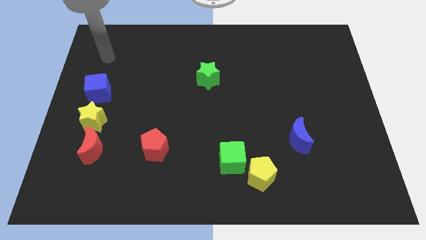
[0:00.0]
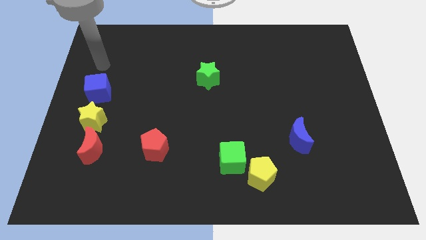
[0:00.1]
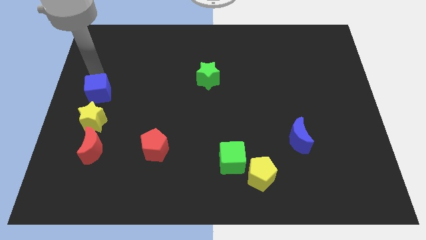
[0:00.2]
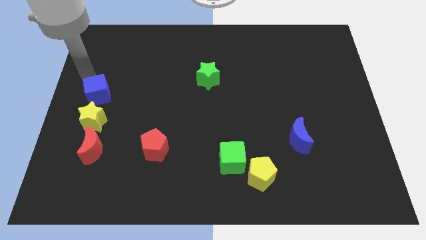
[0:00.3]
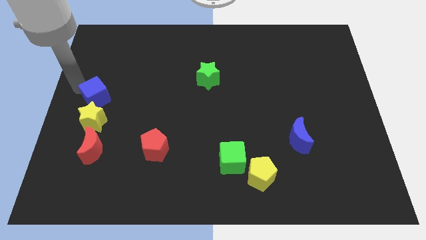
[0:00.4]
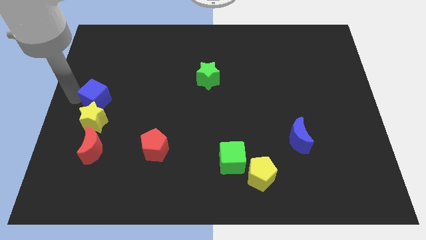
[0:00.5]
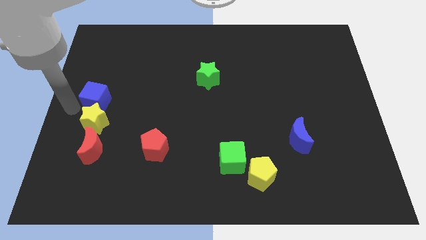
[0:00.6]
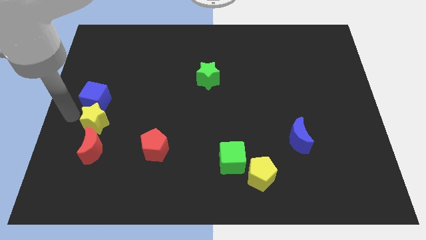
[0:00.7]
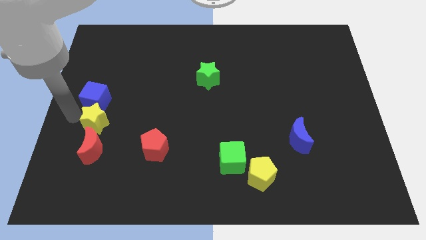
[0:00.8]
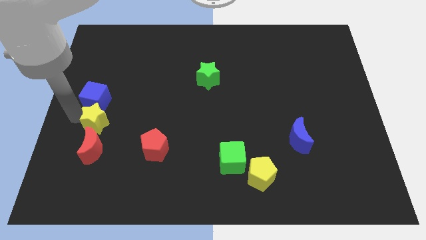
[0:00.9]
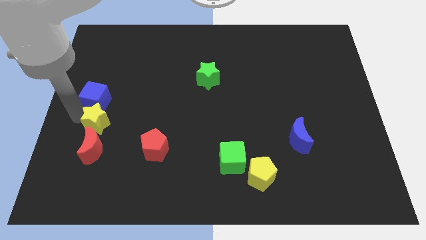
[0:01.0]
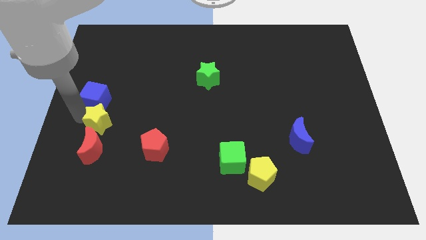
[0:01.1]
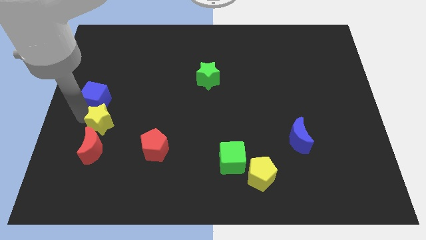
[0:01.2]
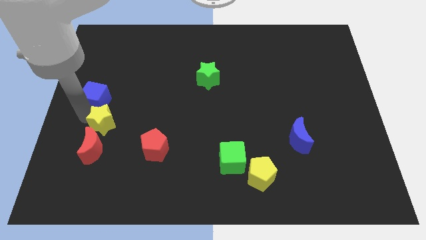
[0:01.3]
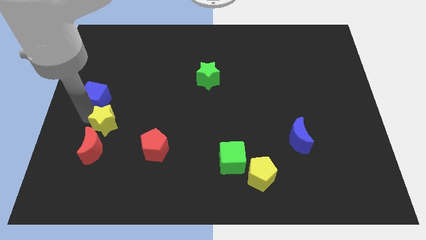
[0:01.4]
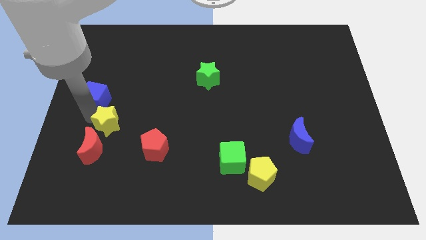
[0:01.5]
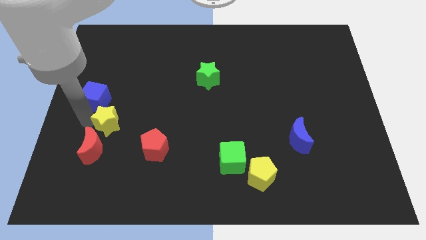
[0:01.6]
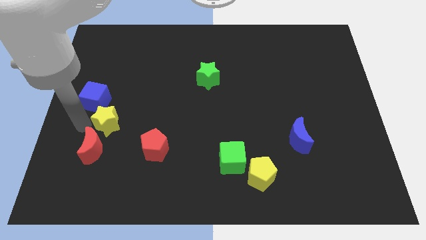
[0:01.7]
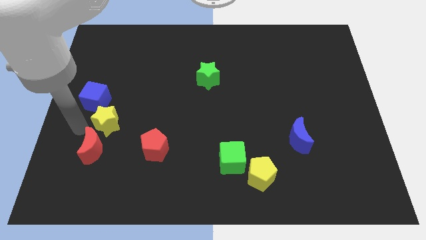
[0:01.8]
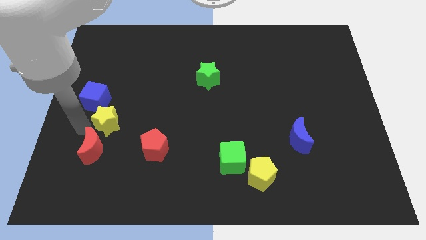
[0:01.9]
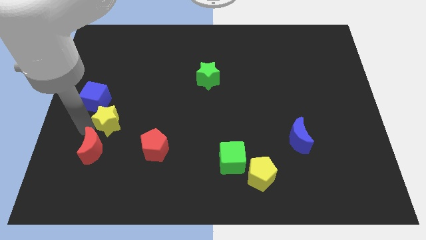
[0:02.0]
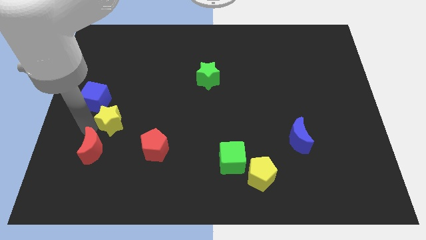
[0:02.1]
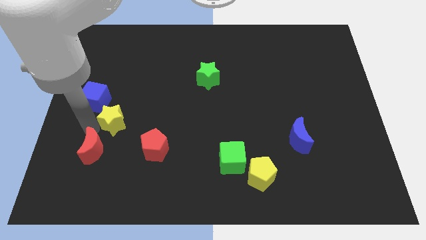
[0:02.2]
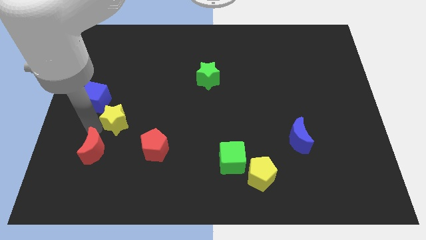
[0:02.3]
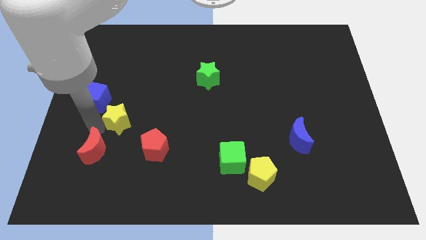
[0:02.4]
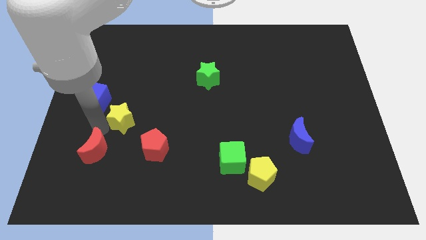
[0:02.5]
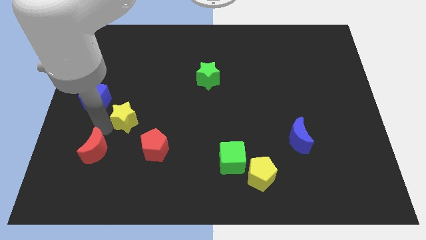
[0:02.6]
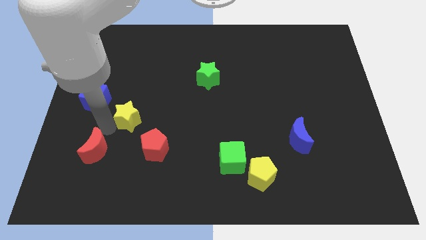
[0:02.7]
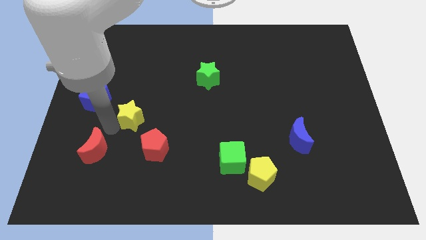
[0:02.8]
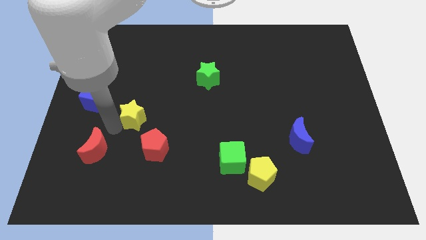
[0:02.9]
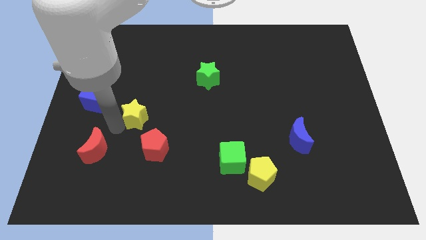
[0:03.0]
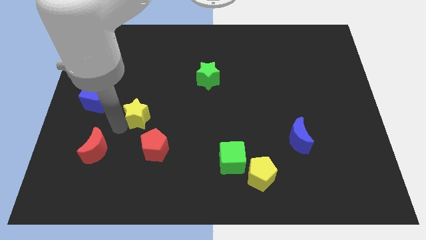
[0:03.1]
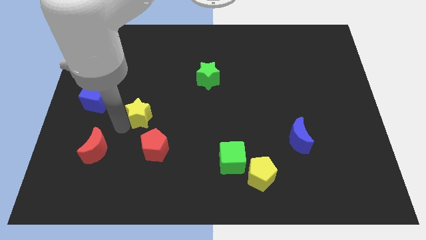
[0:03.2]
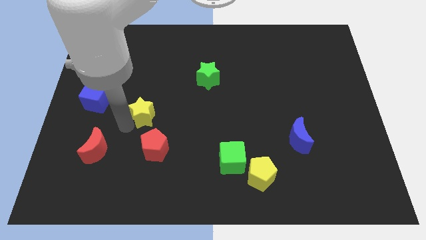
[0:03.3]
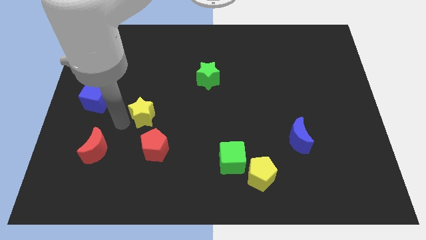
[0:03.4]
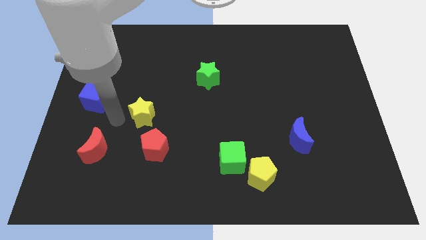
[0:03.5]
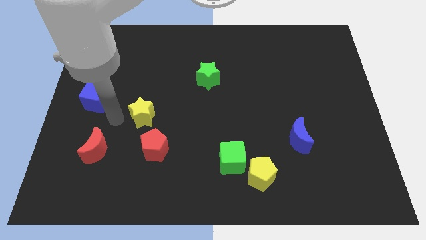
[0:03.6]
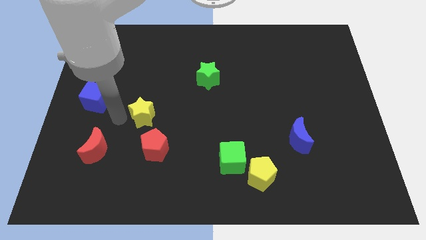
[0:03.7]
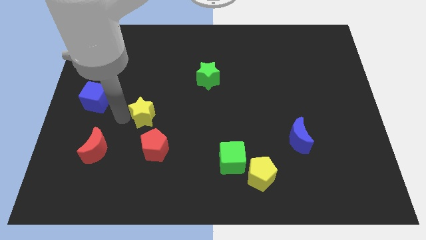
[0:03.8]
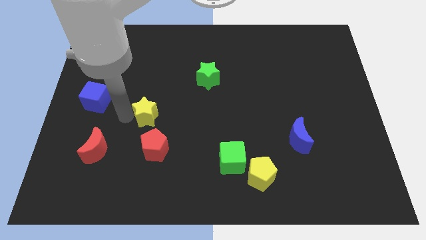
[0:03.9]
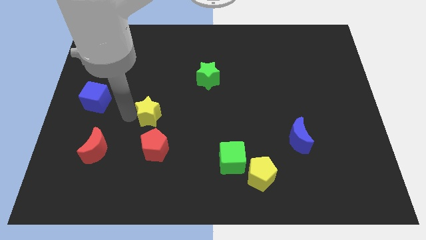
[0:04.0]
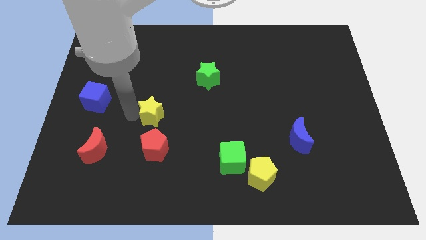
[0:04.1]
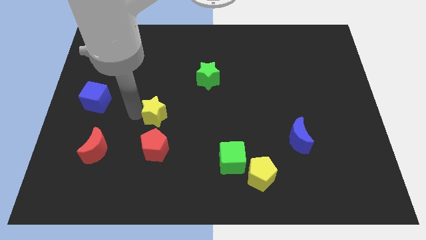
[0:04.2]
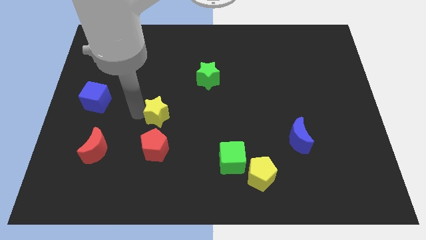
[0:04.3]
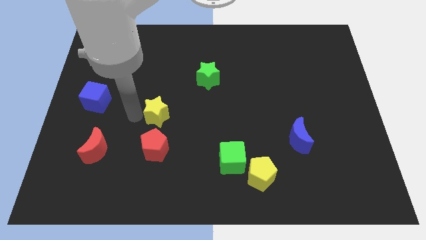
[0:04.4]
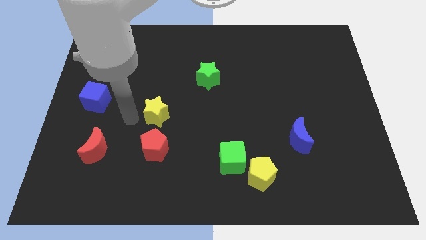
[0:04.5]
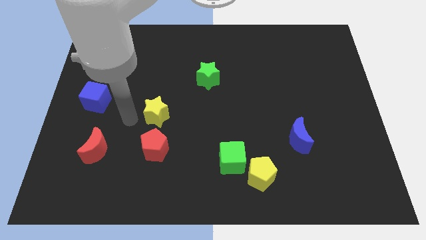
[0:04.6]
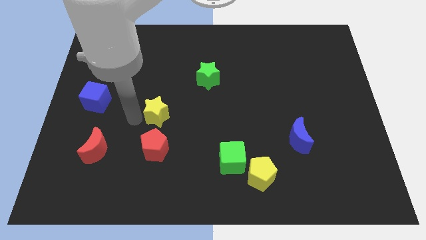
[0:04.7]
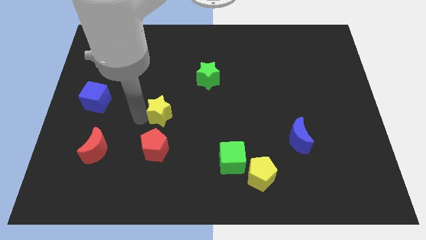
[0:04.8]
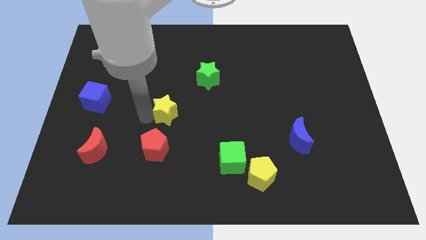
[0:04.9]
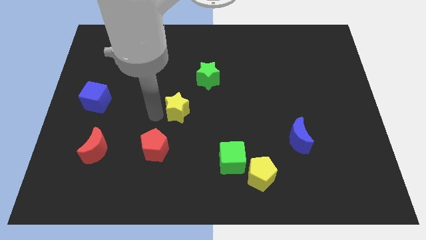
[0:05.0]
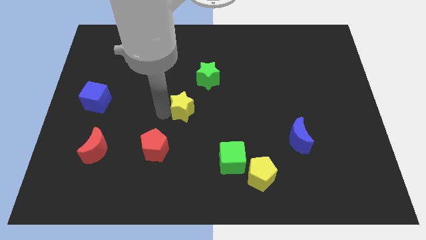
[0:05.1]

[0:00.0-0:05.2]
push the yellow star to the right

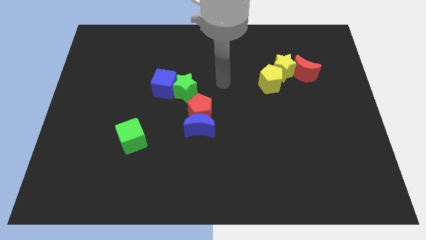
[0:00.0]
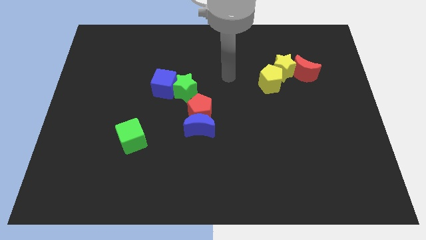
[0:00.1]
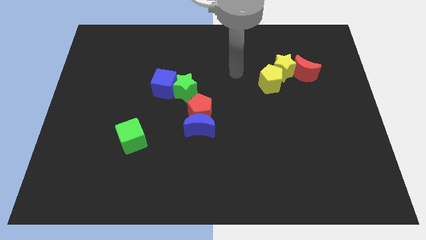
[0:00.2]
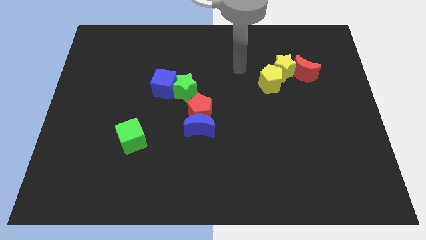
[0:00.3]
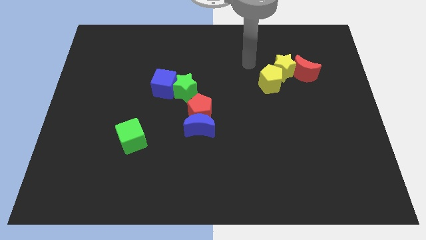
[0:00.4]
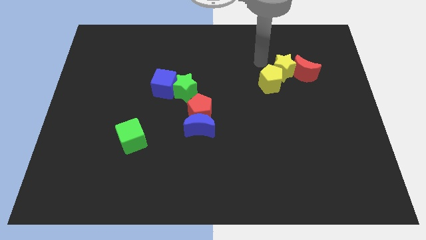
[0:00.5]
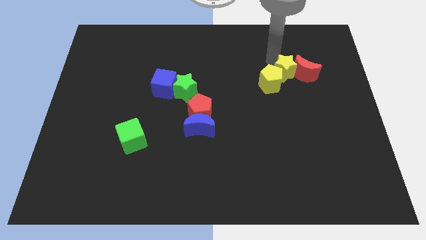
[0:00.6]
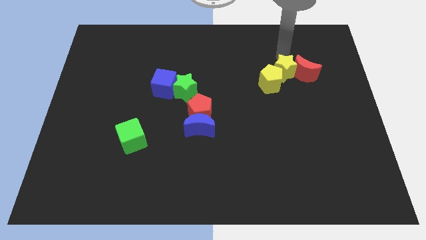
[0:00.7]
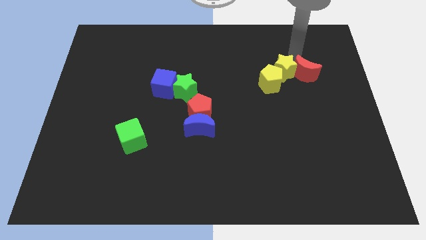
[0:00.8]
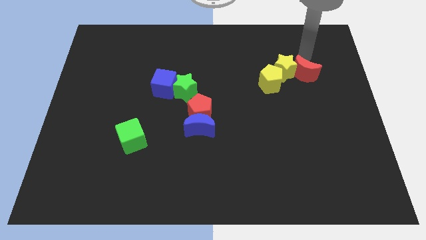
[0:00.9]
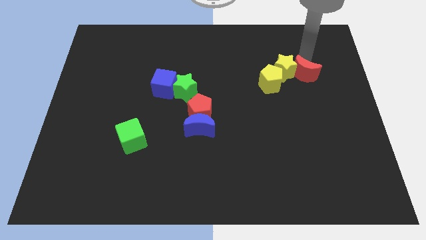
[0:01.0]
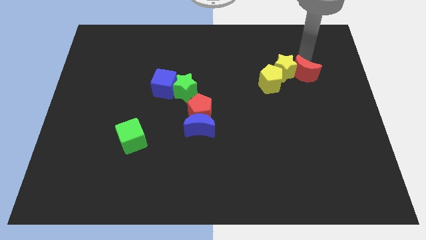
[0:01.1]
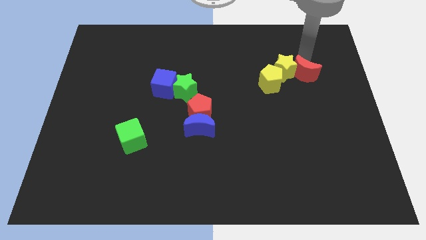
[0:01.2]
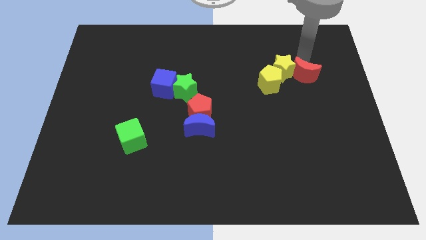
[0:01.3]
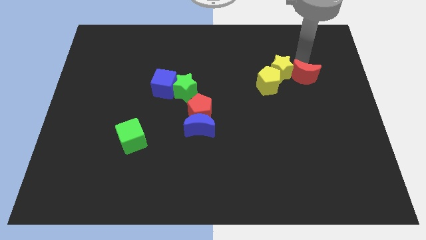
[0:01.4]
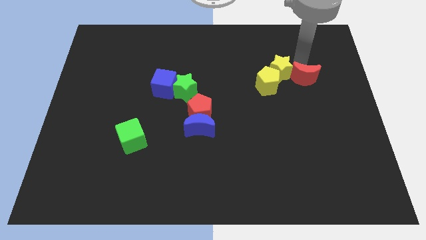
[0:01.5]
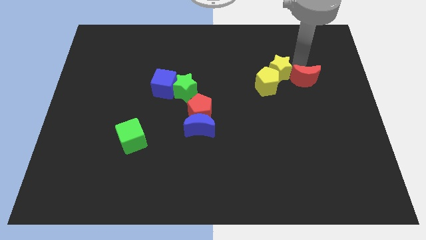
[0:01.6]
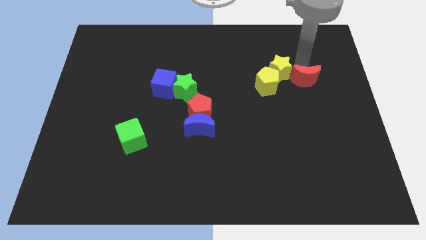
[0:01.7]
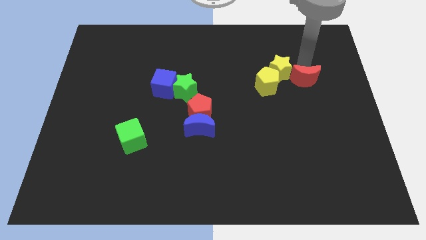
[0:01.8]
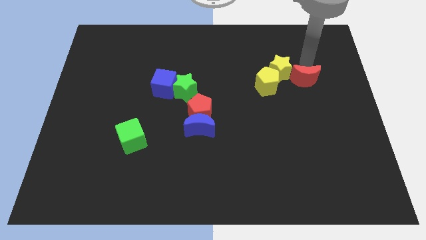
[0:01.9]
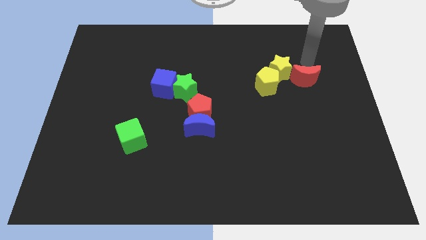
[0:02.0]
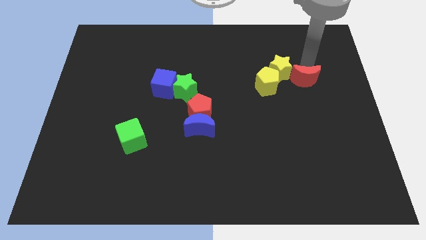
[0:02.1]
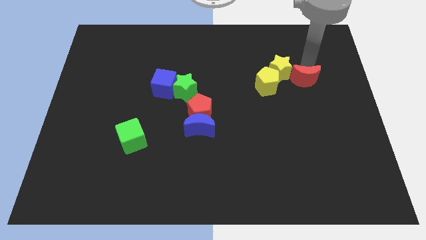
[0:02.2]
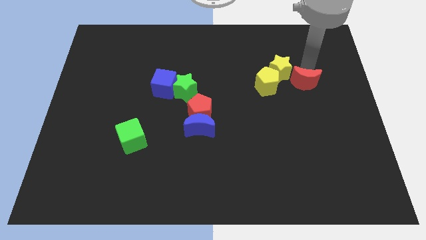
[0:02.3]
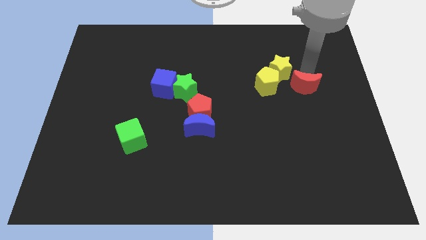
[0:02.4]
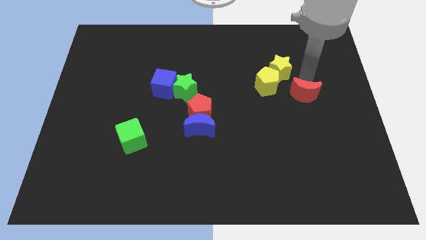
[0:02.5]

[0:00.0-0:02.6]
slightly slide the red moon down
